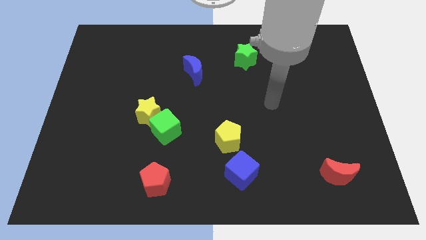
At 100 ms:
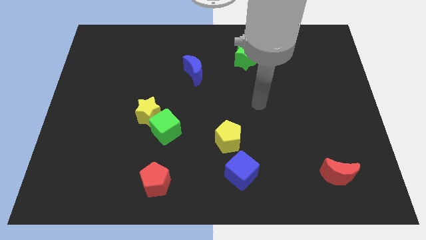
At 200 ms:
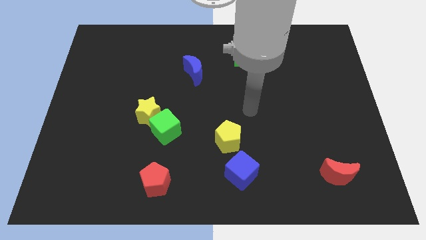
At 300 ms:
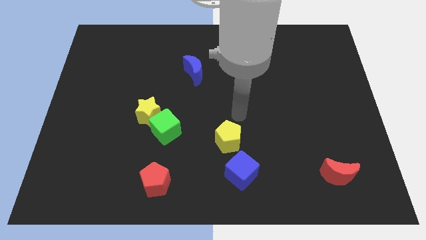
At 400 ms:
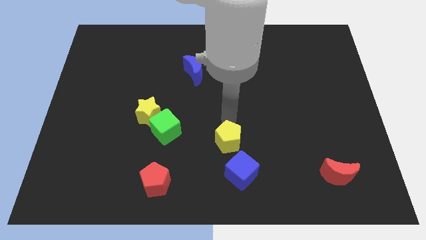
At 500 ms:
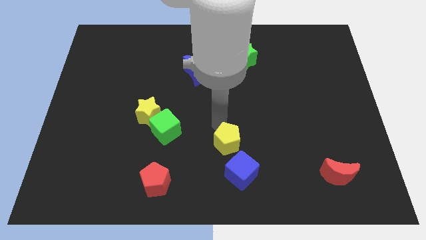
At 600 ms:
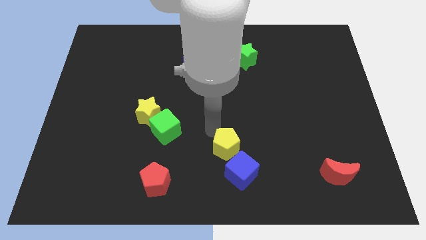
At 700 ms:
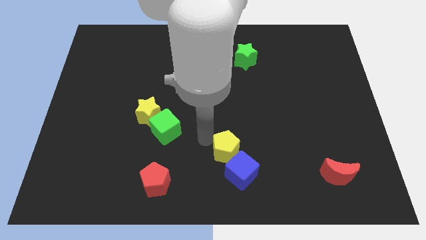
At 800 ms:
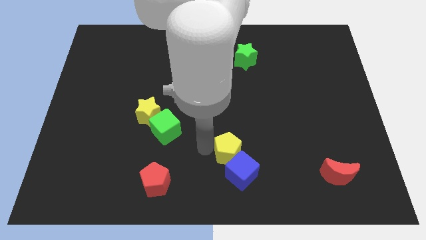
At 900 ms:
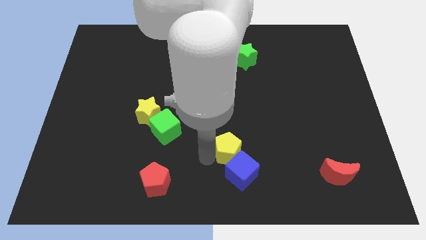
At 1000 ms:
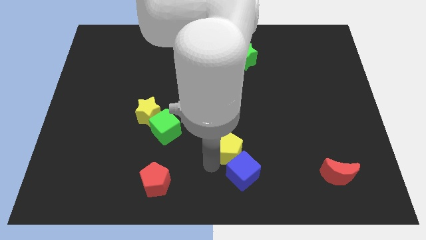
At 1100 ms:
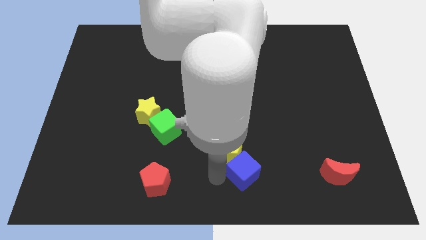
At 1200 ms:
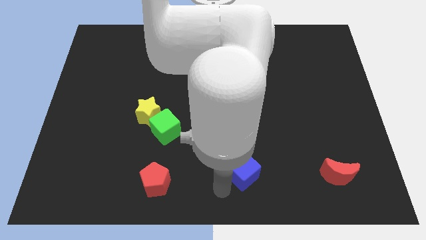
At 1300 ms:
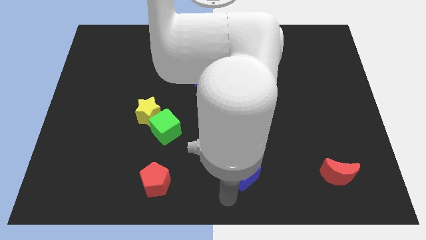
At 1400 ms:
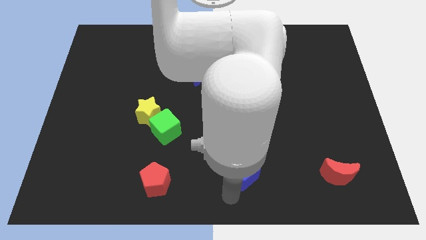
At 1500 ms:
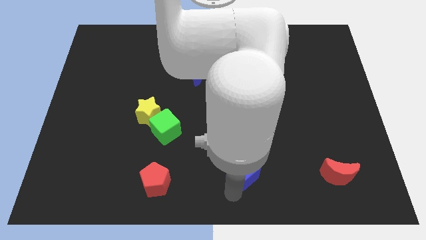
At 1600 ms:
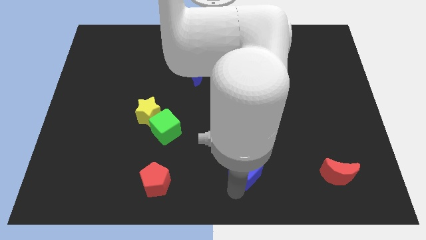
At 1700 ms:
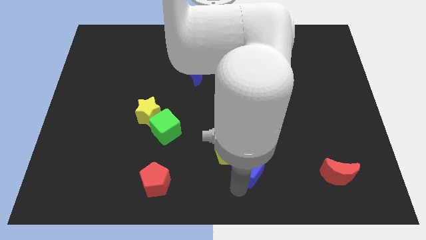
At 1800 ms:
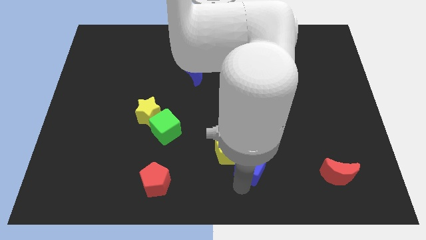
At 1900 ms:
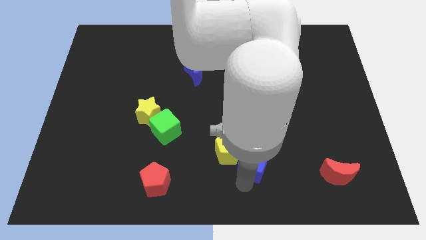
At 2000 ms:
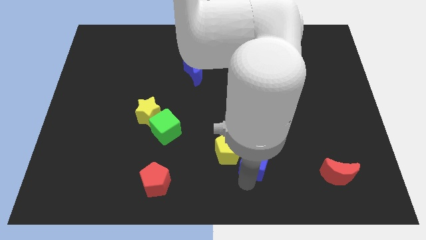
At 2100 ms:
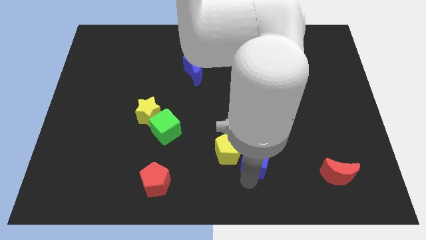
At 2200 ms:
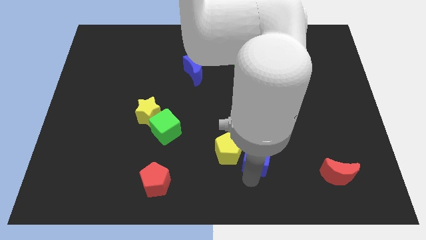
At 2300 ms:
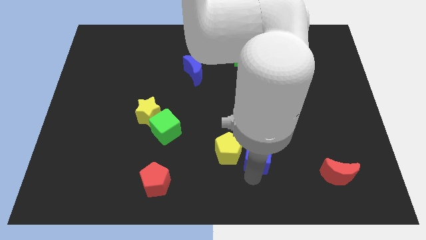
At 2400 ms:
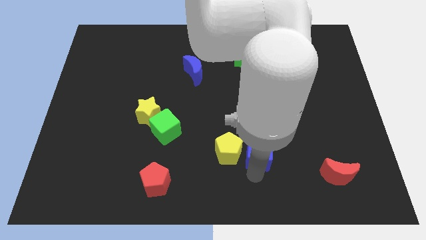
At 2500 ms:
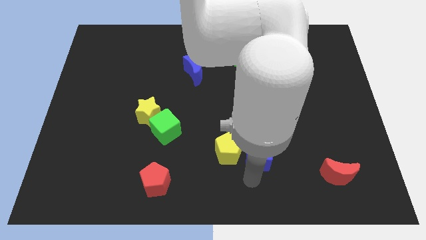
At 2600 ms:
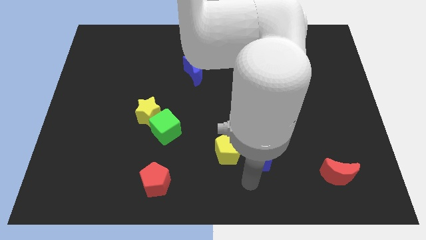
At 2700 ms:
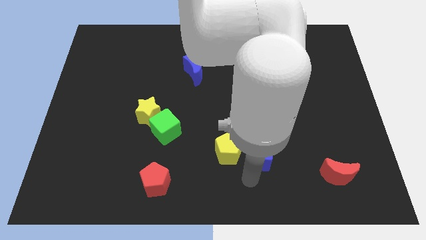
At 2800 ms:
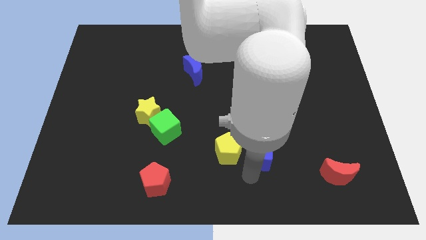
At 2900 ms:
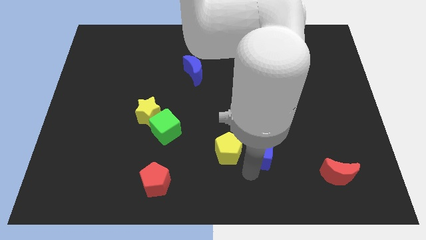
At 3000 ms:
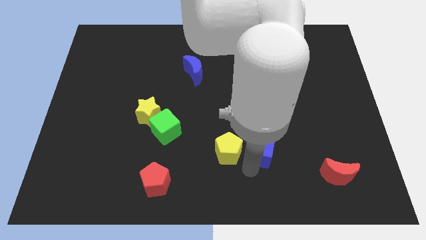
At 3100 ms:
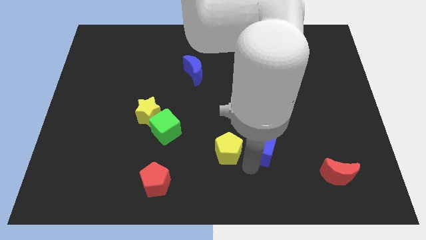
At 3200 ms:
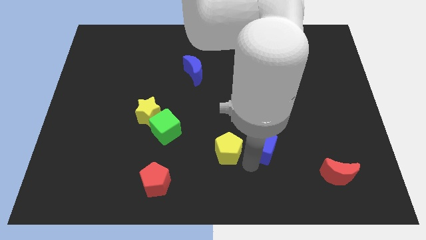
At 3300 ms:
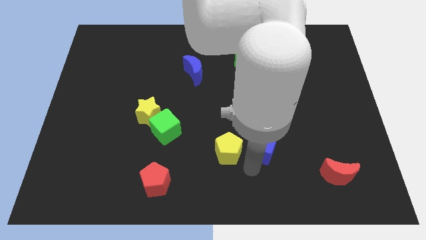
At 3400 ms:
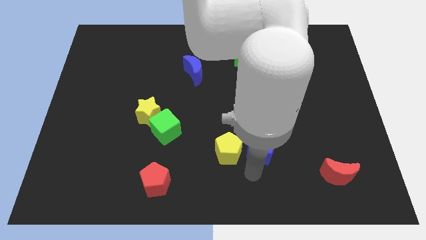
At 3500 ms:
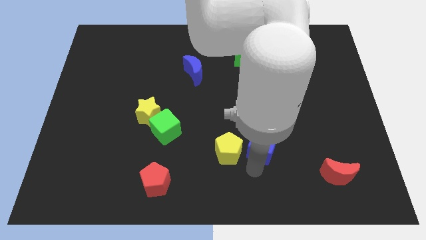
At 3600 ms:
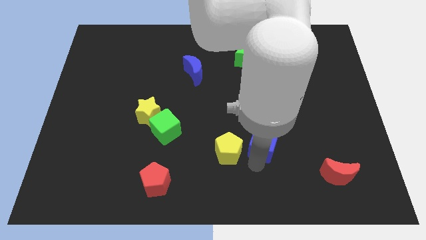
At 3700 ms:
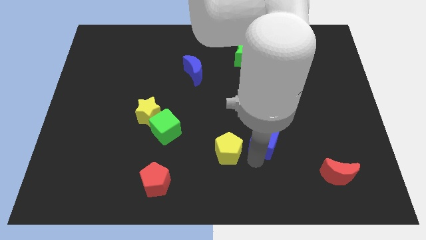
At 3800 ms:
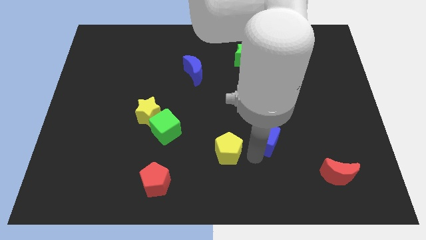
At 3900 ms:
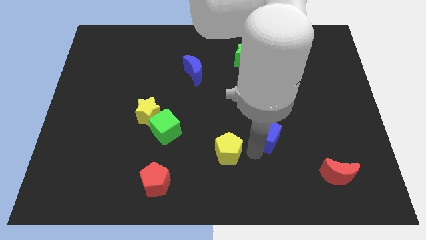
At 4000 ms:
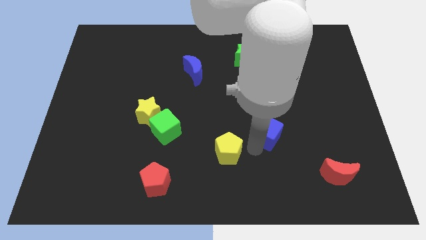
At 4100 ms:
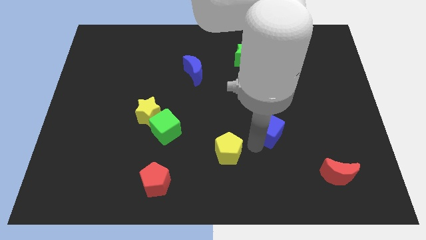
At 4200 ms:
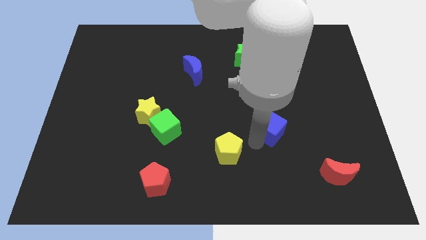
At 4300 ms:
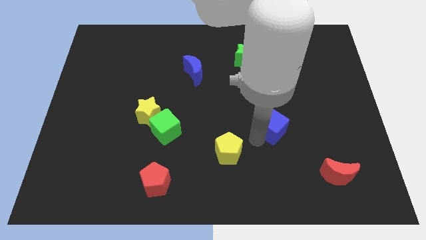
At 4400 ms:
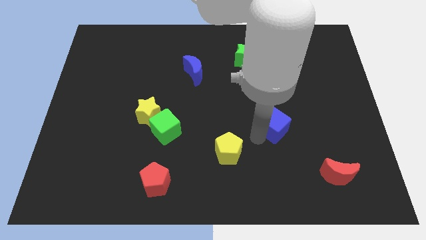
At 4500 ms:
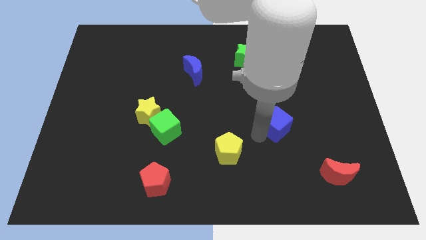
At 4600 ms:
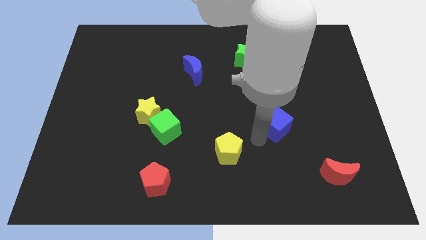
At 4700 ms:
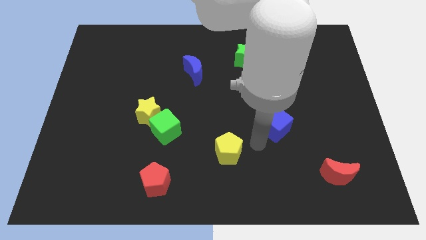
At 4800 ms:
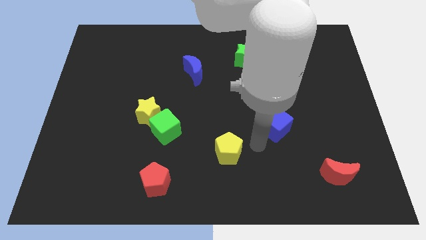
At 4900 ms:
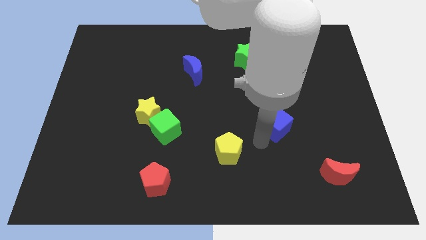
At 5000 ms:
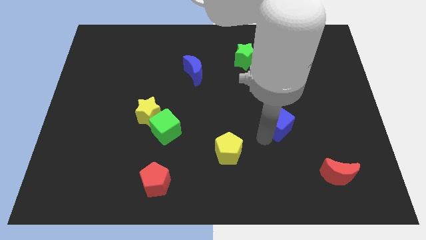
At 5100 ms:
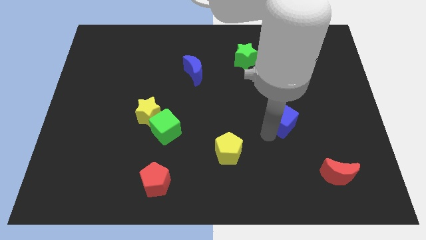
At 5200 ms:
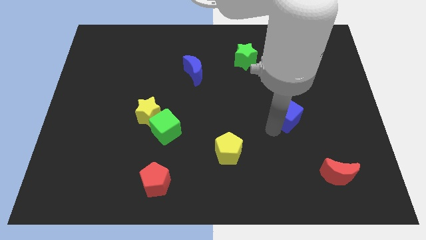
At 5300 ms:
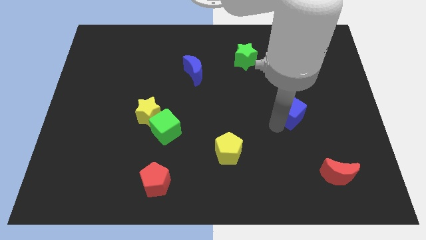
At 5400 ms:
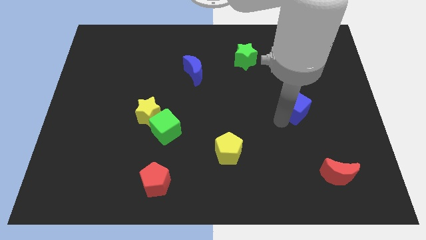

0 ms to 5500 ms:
push the blue cube upwards and then to the right

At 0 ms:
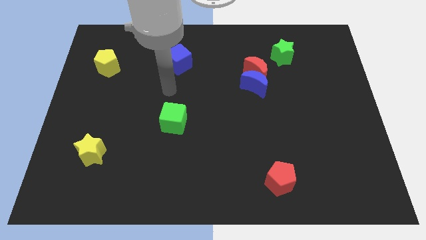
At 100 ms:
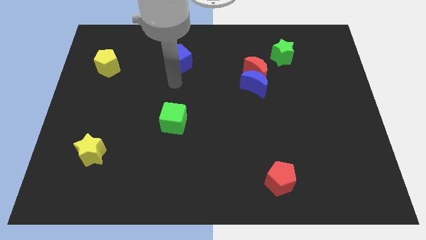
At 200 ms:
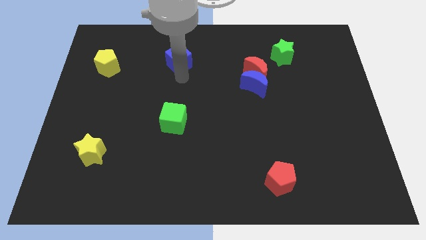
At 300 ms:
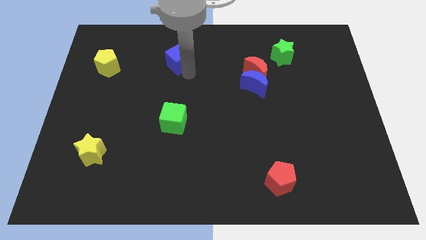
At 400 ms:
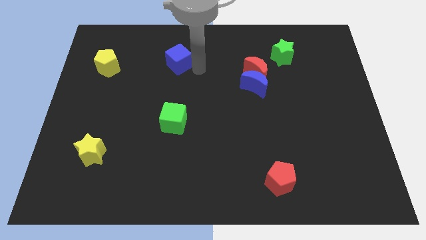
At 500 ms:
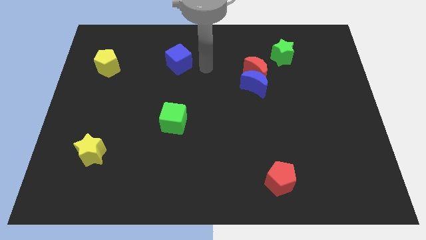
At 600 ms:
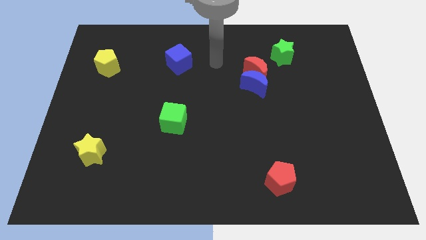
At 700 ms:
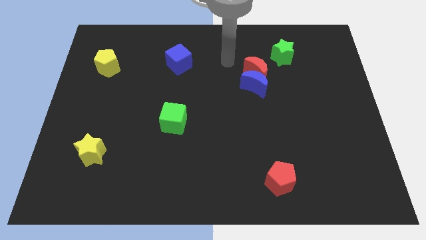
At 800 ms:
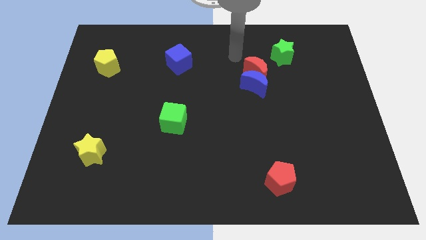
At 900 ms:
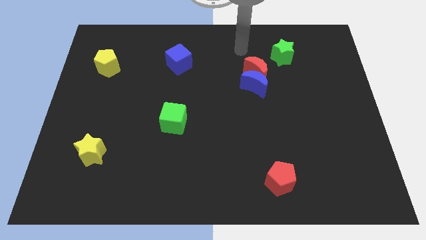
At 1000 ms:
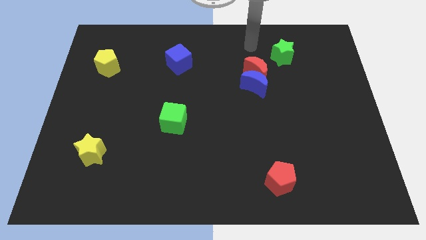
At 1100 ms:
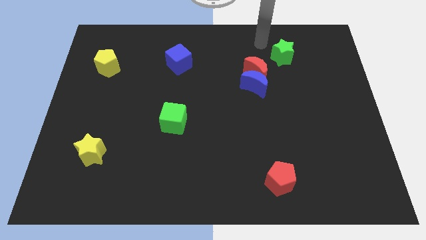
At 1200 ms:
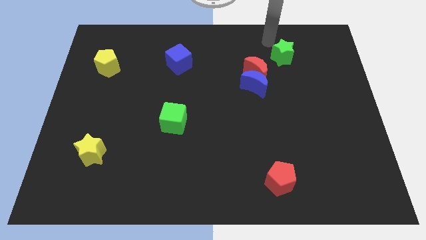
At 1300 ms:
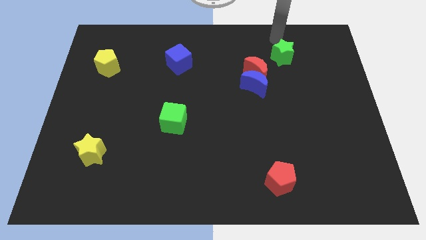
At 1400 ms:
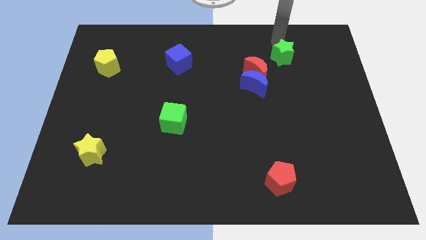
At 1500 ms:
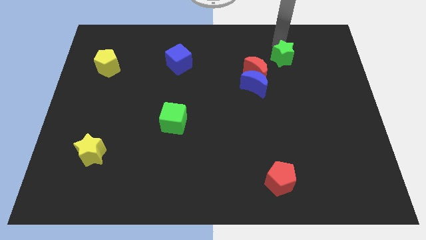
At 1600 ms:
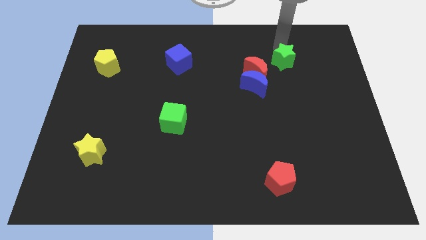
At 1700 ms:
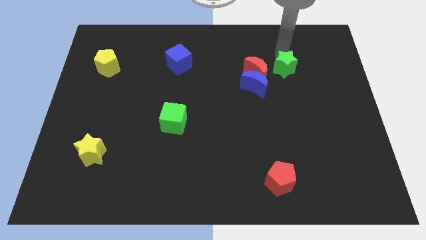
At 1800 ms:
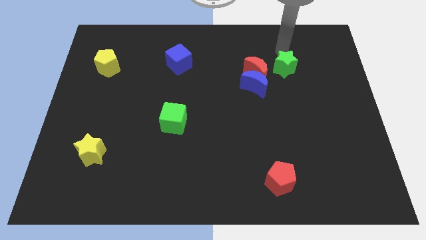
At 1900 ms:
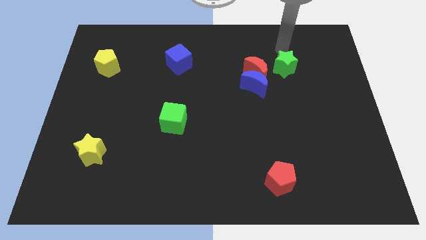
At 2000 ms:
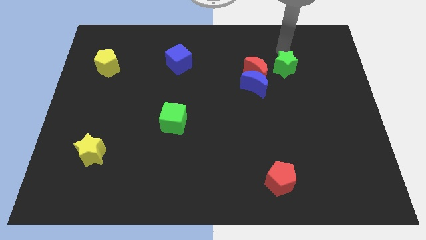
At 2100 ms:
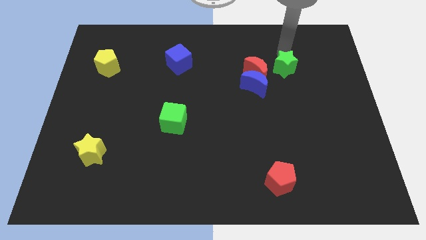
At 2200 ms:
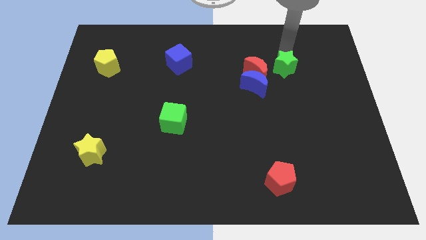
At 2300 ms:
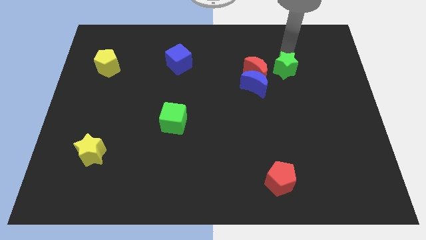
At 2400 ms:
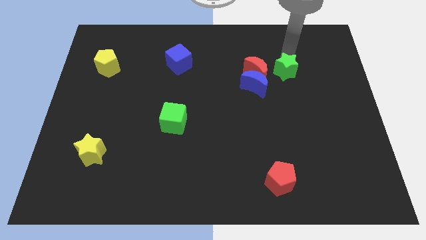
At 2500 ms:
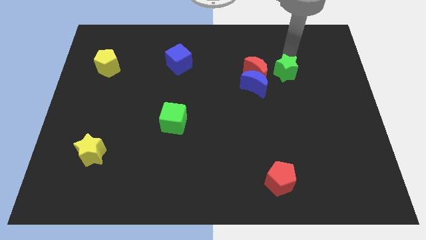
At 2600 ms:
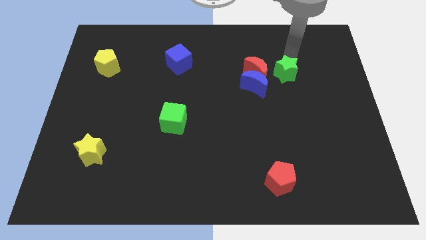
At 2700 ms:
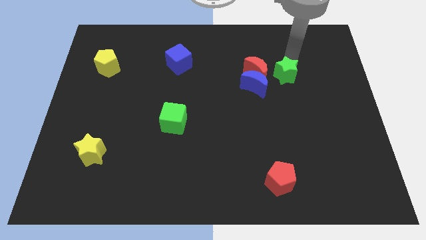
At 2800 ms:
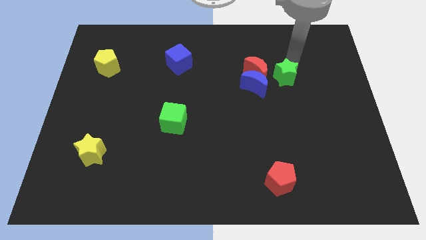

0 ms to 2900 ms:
slide the green star a little downwards
